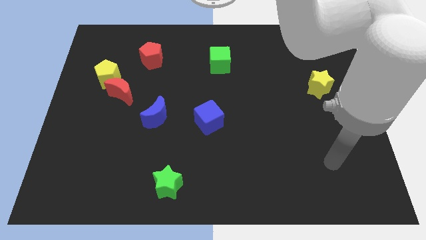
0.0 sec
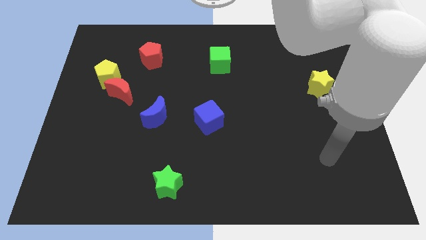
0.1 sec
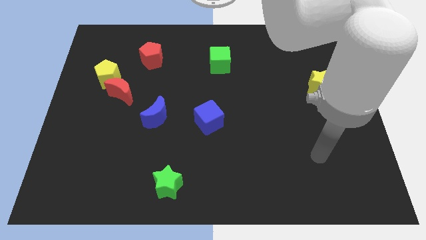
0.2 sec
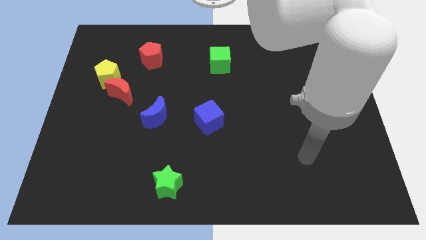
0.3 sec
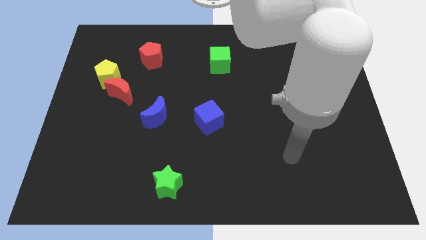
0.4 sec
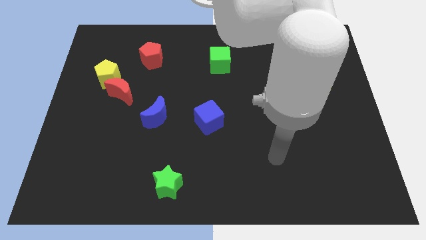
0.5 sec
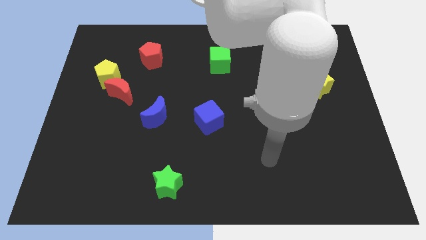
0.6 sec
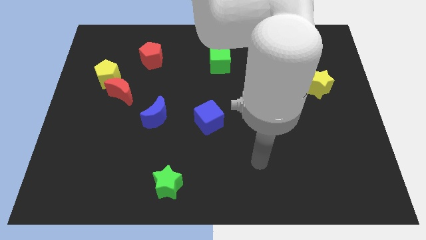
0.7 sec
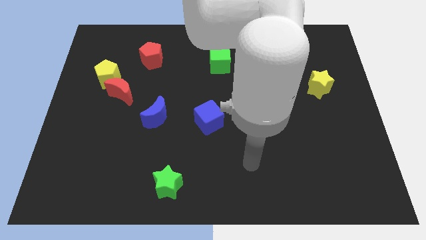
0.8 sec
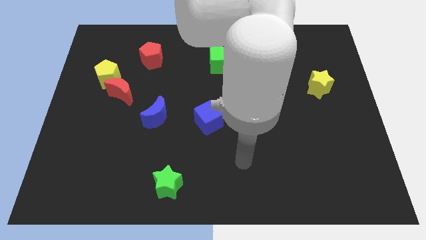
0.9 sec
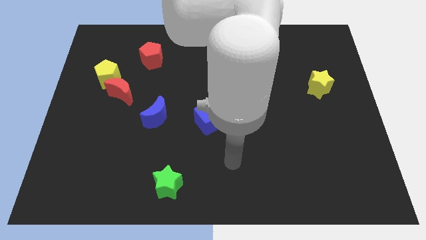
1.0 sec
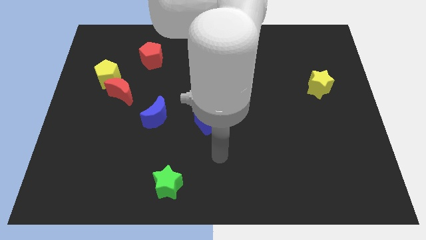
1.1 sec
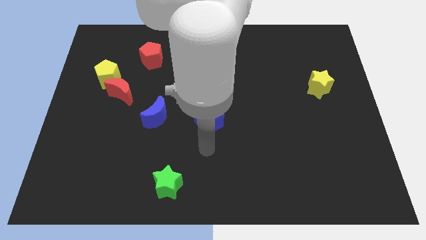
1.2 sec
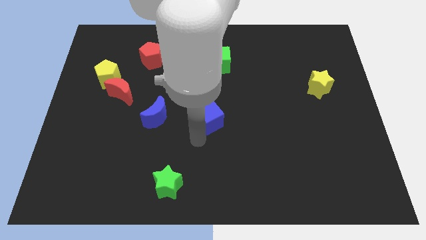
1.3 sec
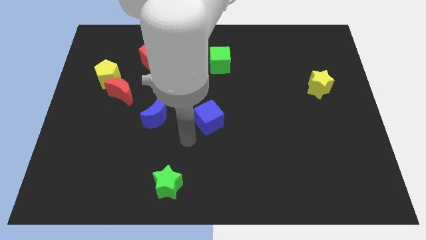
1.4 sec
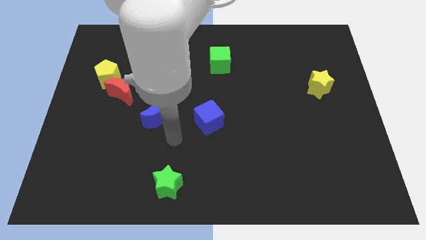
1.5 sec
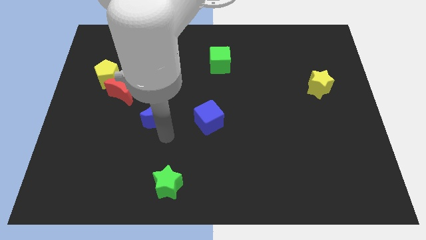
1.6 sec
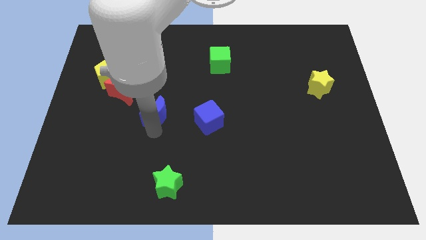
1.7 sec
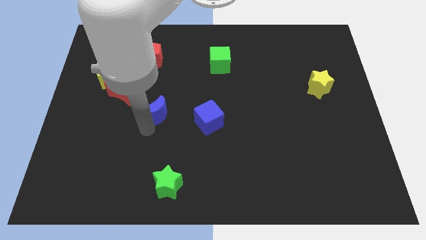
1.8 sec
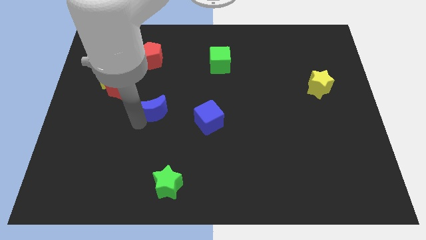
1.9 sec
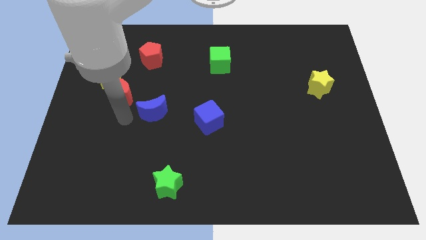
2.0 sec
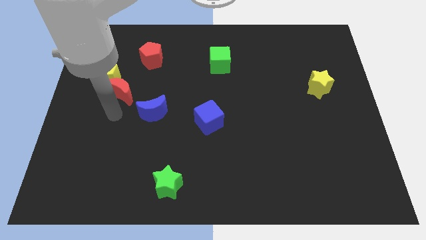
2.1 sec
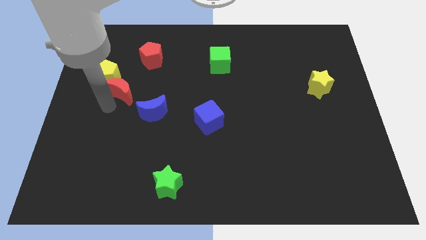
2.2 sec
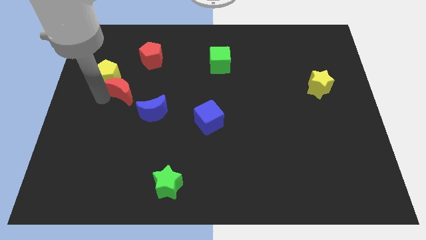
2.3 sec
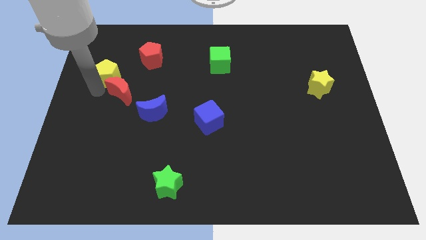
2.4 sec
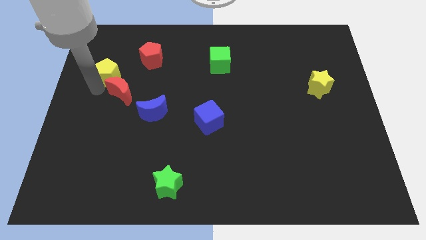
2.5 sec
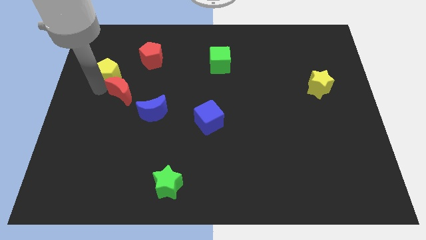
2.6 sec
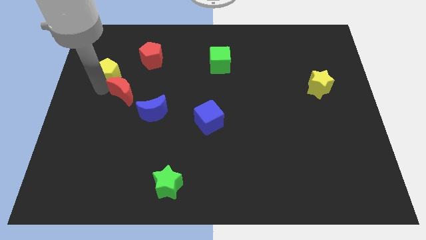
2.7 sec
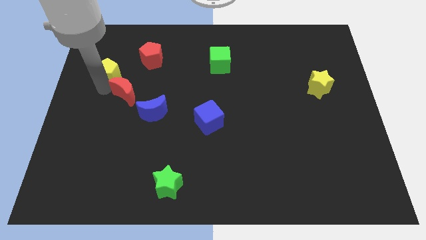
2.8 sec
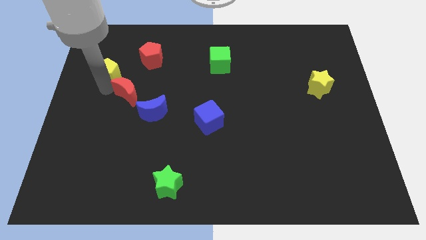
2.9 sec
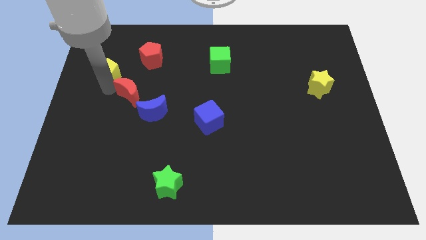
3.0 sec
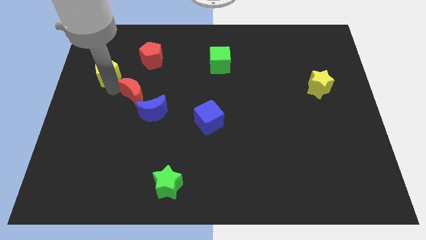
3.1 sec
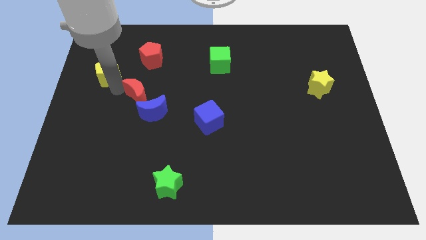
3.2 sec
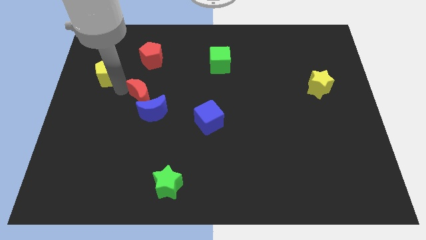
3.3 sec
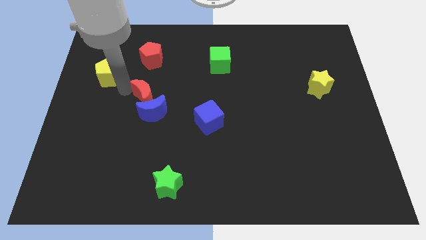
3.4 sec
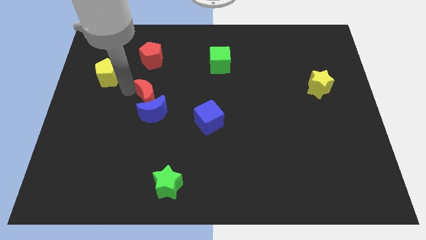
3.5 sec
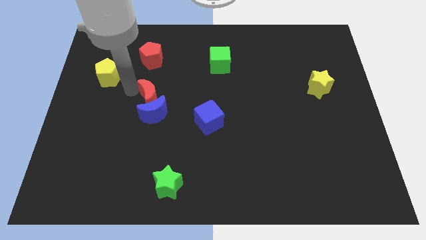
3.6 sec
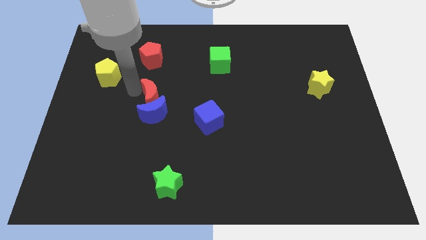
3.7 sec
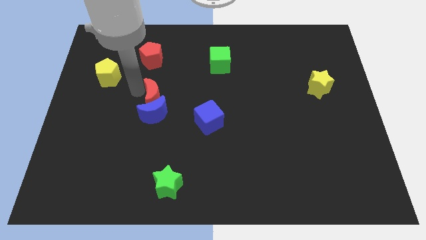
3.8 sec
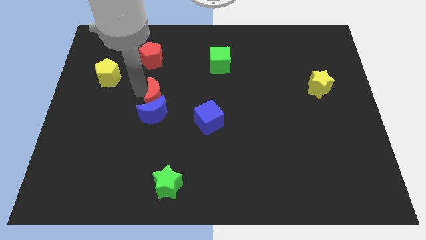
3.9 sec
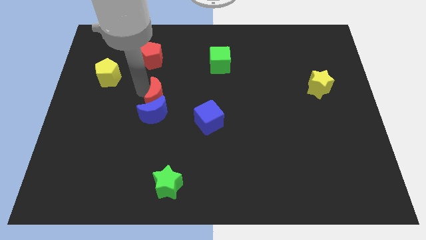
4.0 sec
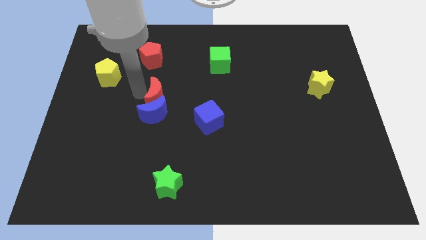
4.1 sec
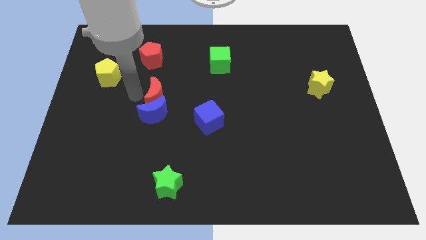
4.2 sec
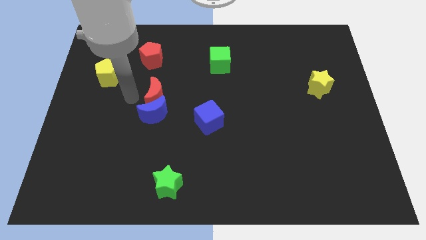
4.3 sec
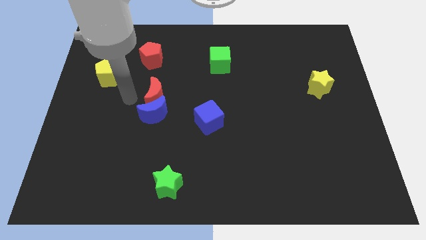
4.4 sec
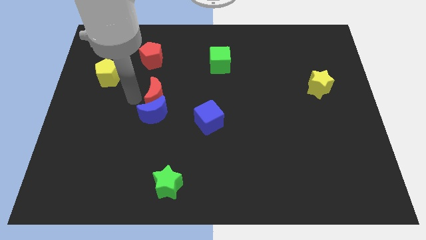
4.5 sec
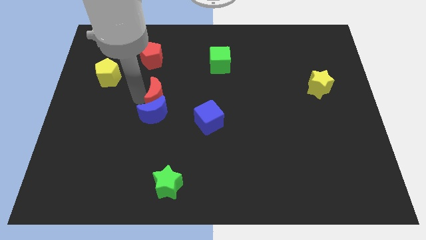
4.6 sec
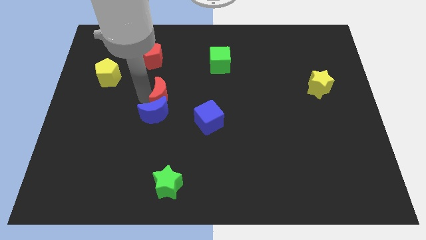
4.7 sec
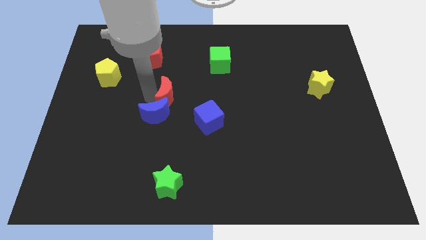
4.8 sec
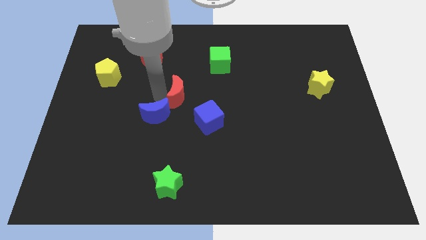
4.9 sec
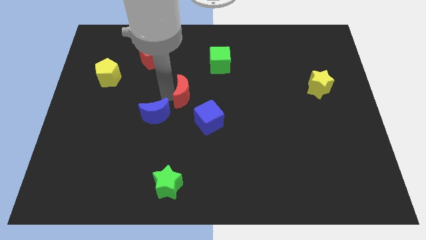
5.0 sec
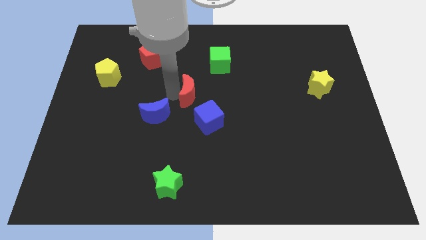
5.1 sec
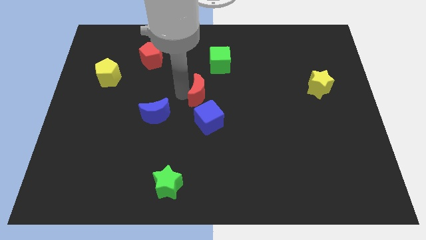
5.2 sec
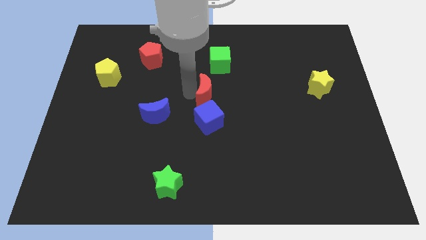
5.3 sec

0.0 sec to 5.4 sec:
slide the red moon to the right

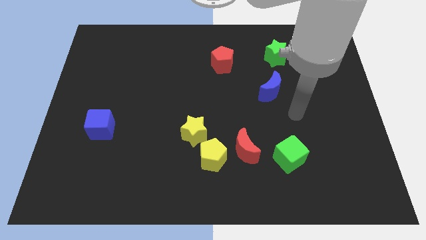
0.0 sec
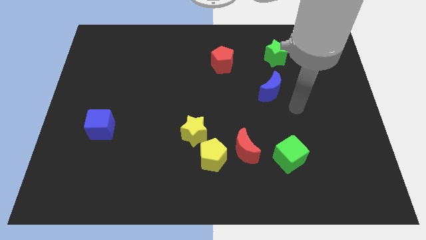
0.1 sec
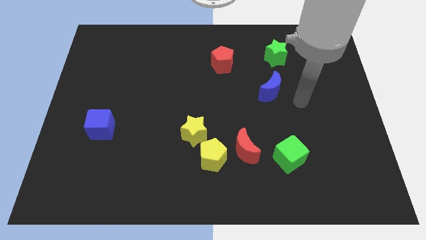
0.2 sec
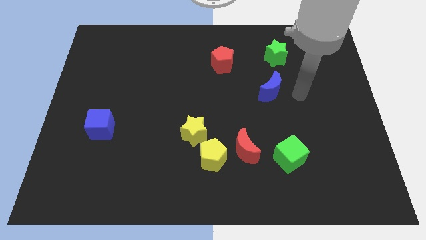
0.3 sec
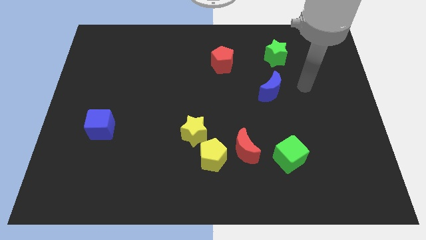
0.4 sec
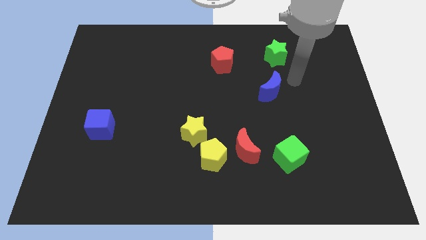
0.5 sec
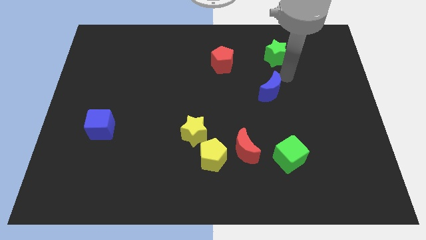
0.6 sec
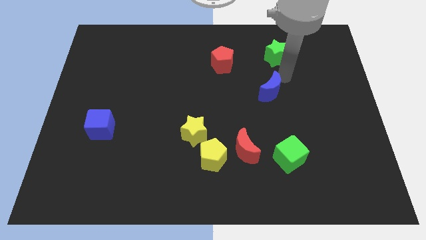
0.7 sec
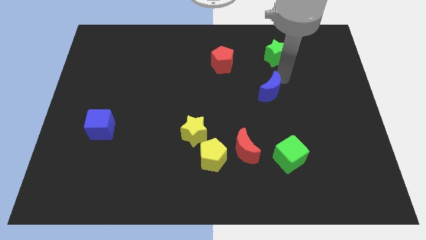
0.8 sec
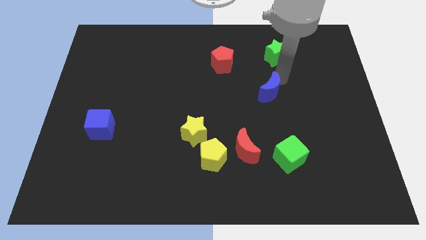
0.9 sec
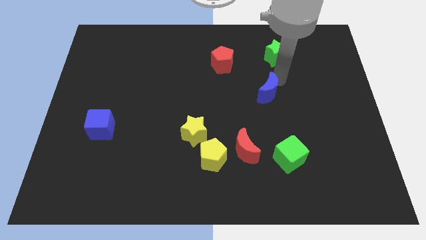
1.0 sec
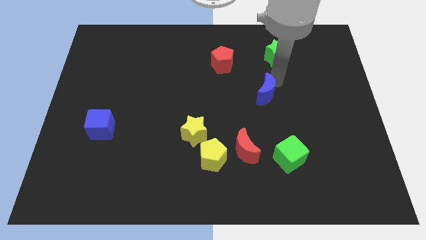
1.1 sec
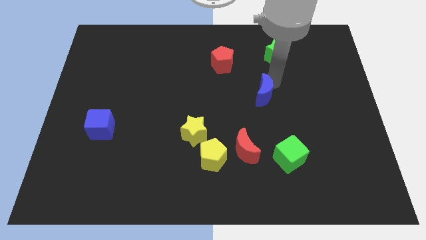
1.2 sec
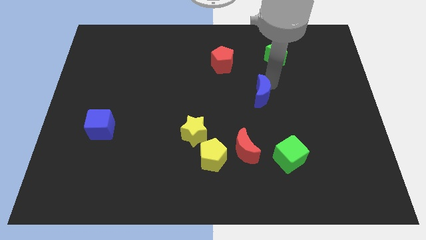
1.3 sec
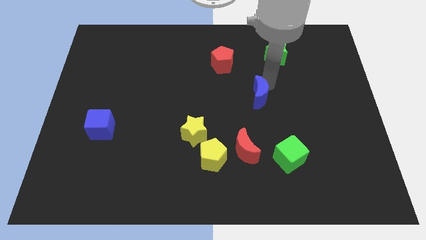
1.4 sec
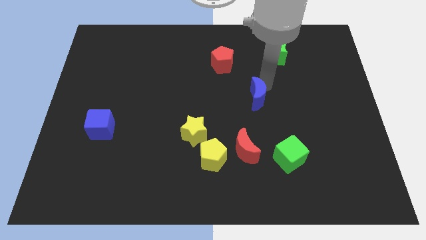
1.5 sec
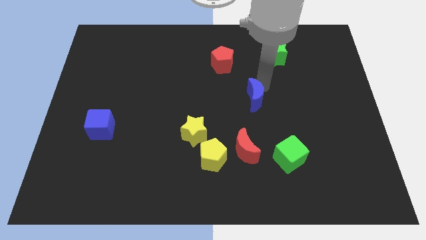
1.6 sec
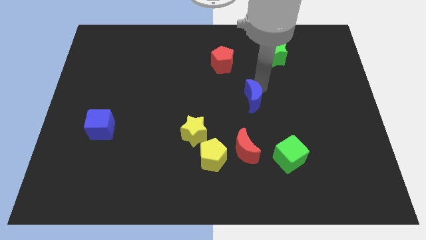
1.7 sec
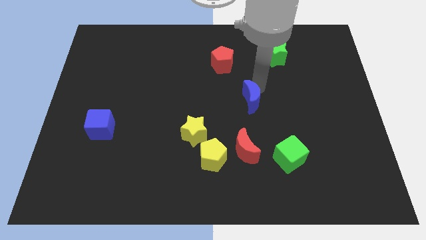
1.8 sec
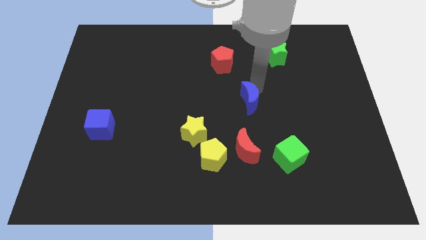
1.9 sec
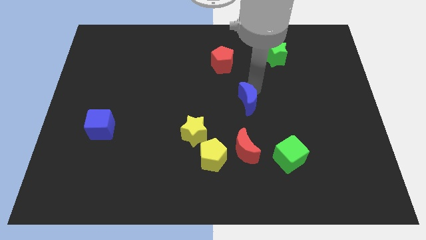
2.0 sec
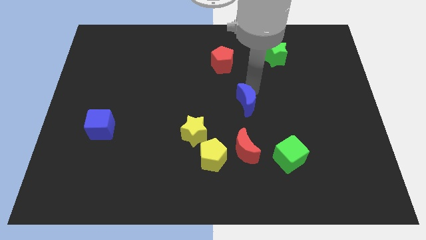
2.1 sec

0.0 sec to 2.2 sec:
slide the blue moon downwards and then left a little

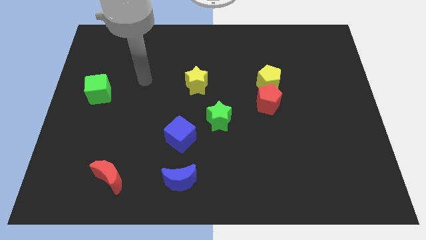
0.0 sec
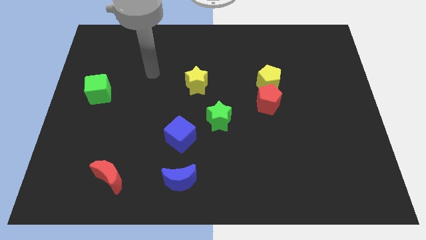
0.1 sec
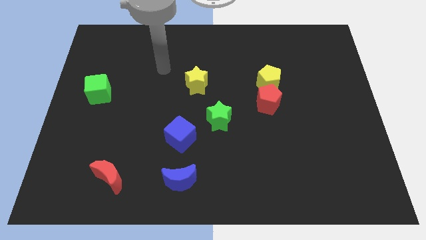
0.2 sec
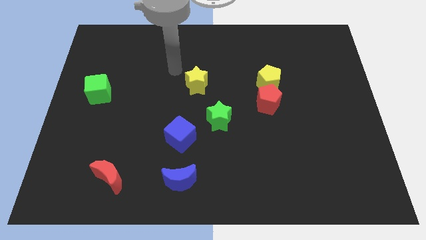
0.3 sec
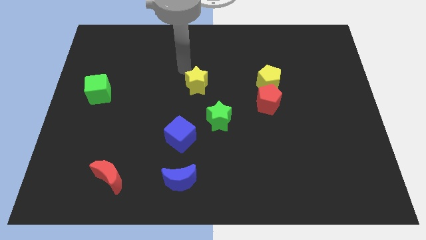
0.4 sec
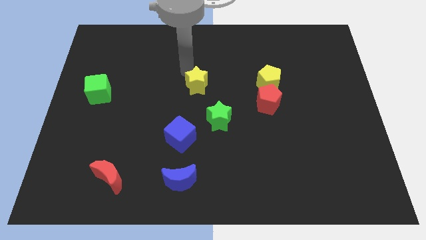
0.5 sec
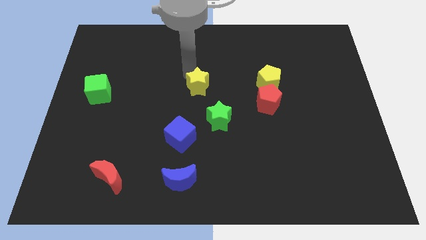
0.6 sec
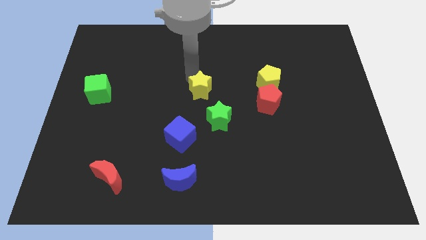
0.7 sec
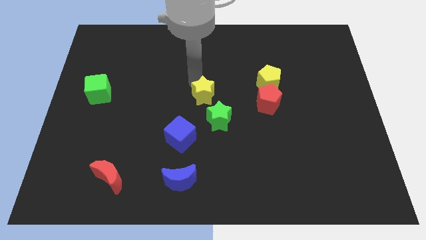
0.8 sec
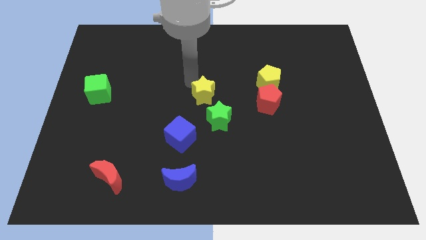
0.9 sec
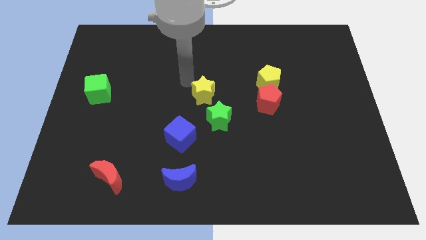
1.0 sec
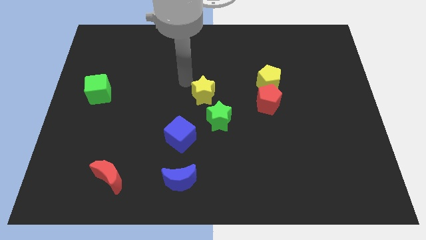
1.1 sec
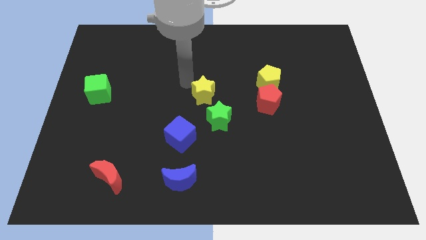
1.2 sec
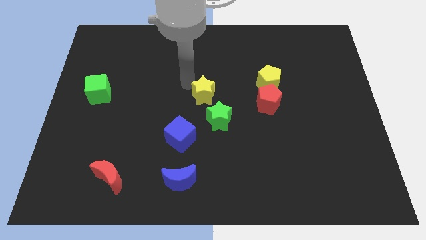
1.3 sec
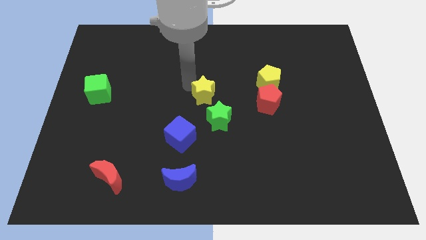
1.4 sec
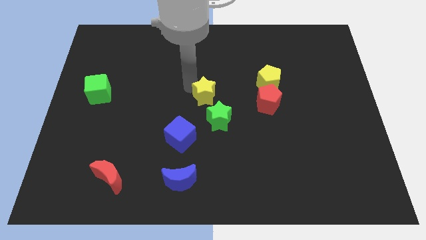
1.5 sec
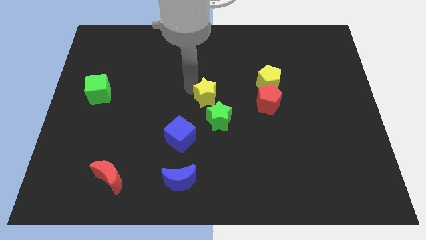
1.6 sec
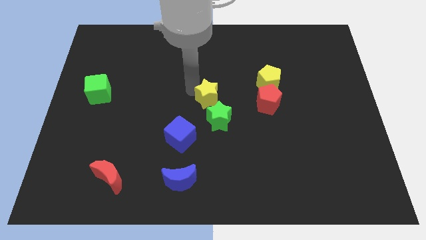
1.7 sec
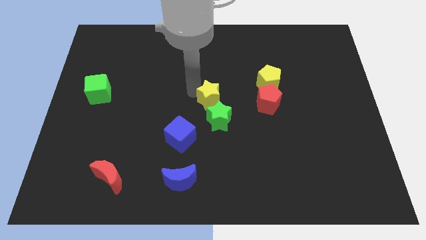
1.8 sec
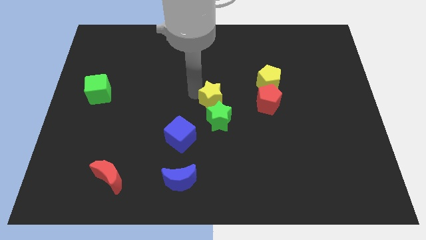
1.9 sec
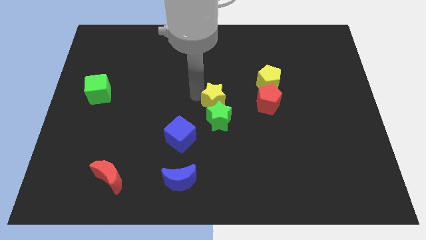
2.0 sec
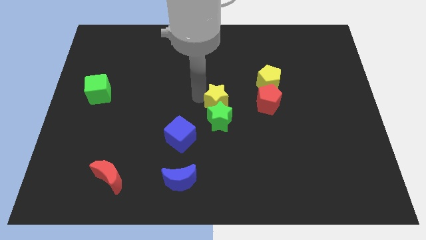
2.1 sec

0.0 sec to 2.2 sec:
move the yellow star a little downwards and right
